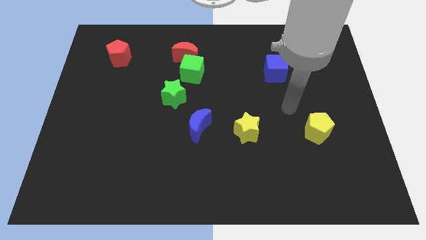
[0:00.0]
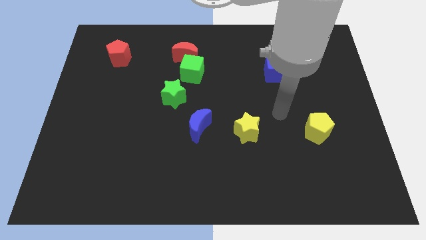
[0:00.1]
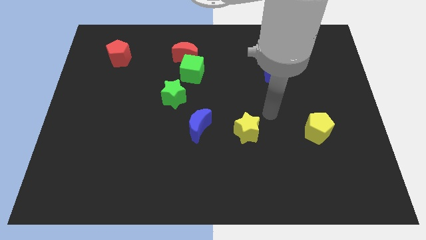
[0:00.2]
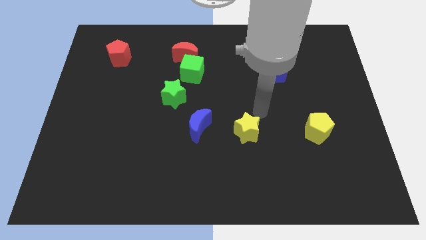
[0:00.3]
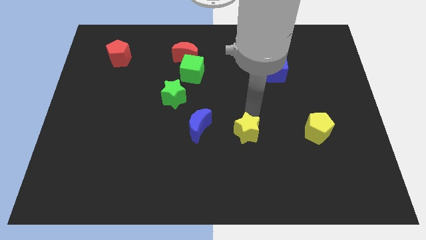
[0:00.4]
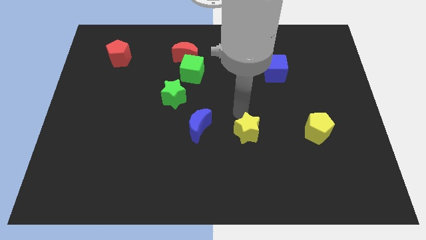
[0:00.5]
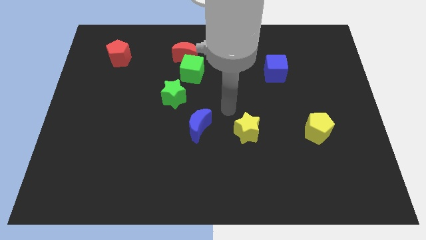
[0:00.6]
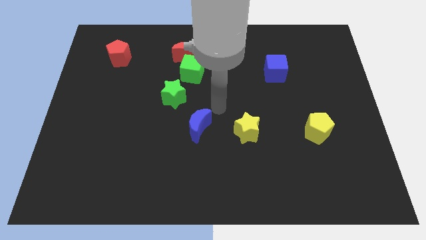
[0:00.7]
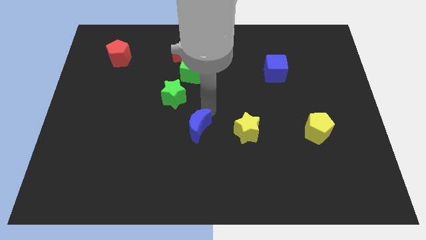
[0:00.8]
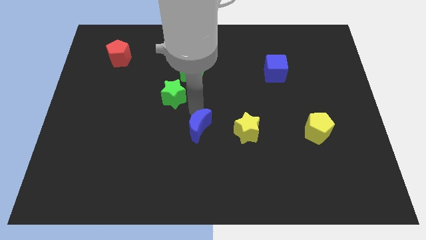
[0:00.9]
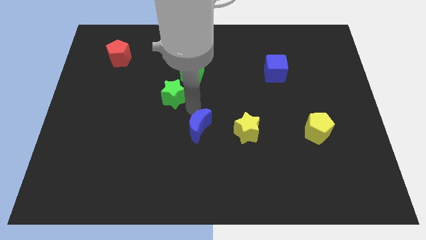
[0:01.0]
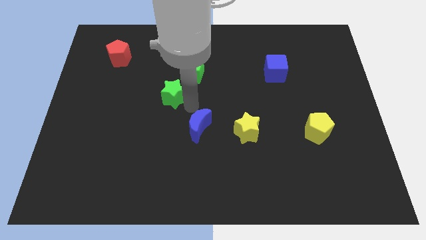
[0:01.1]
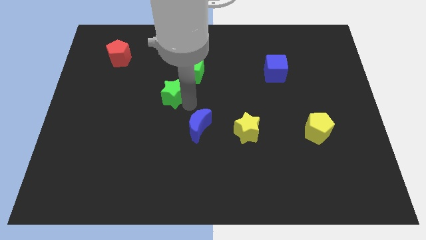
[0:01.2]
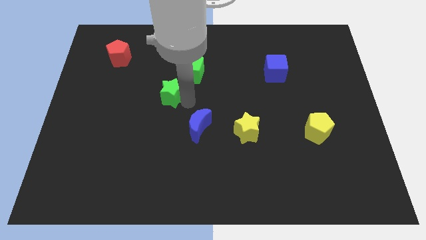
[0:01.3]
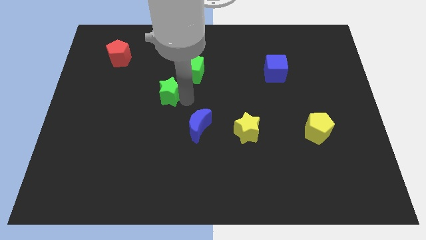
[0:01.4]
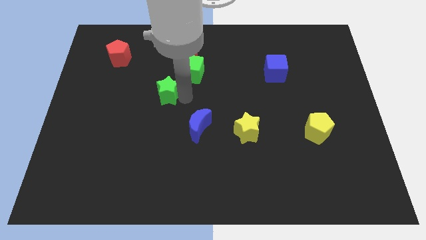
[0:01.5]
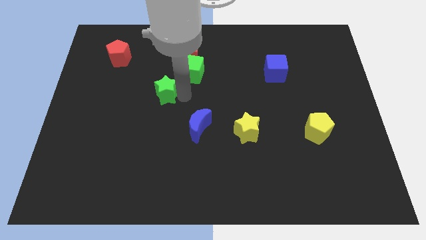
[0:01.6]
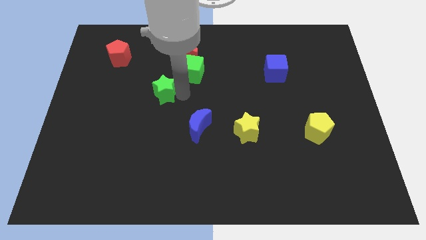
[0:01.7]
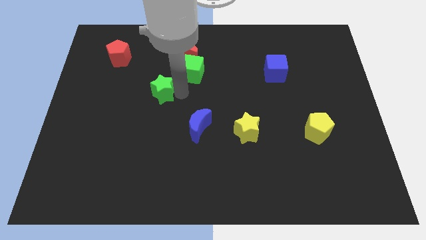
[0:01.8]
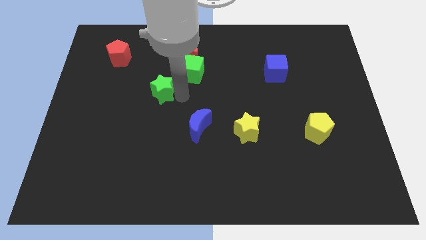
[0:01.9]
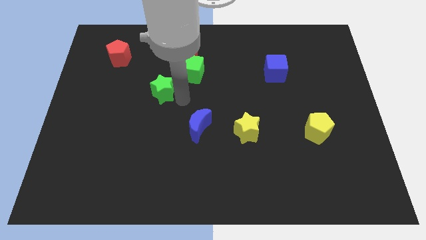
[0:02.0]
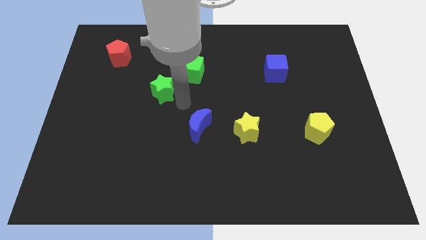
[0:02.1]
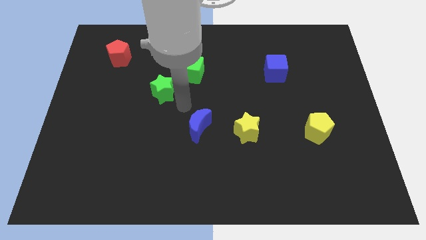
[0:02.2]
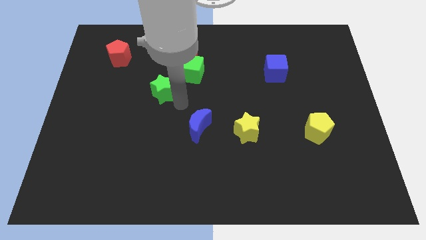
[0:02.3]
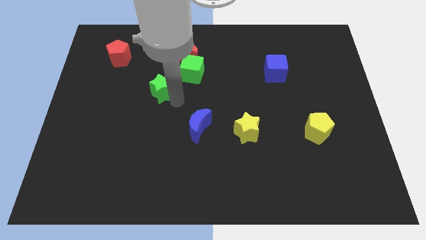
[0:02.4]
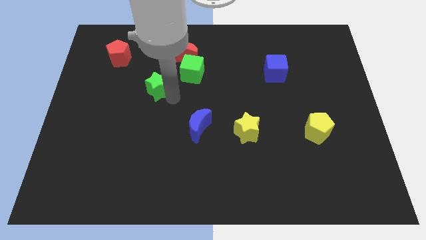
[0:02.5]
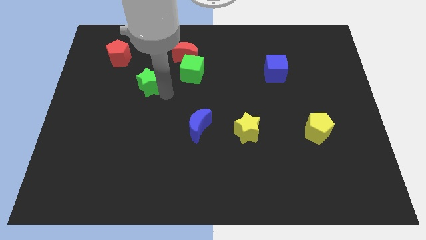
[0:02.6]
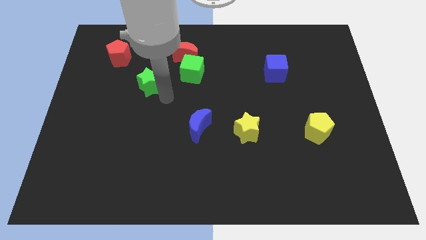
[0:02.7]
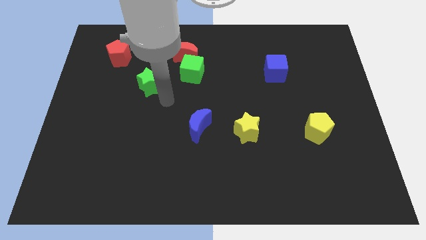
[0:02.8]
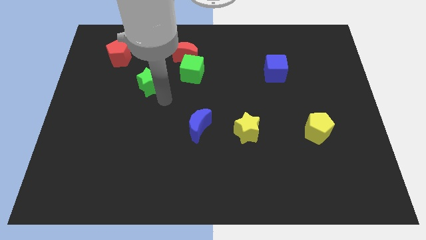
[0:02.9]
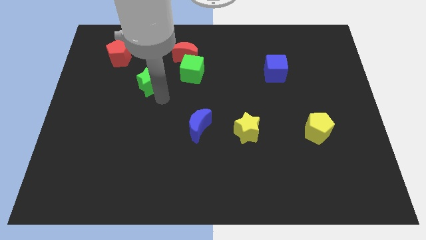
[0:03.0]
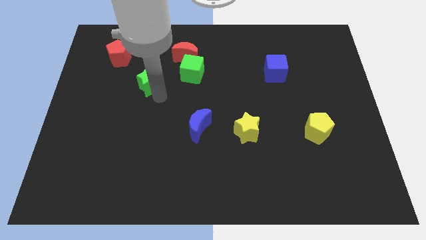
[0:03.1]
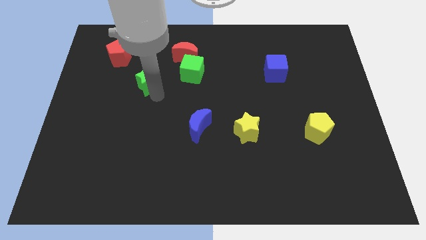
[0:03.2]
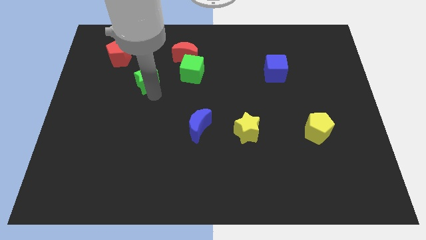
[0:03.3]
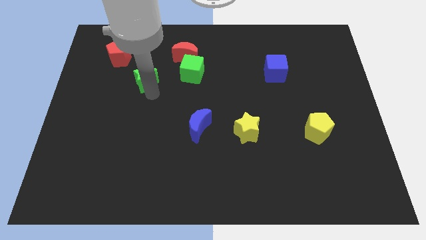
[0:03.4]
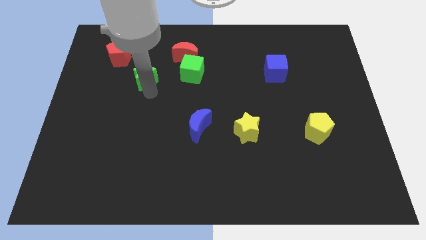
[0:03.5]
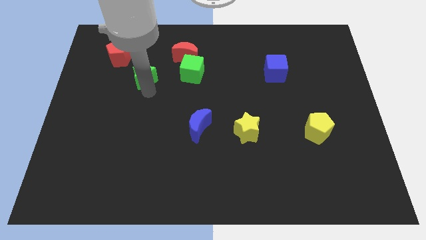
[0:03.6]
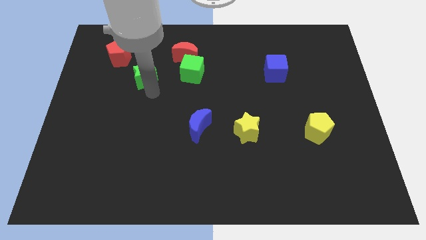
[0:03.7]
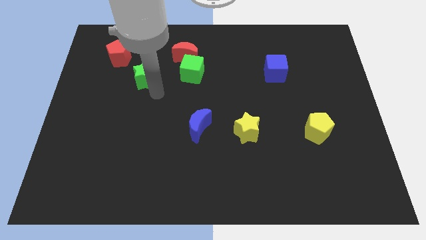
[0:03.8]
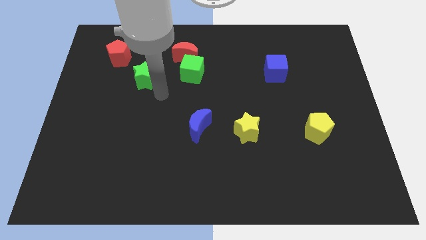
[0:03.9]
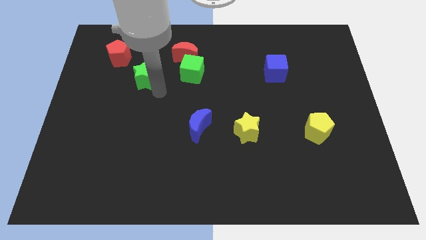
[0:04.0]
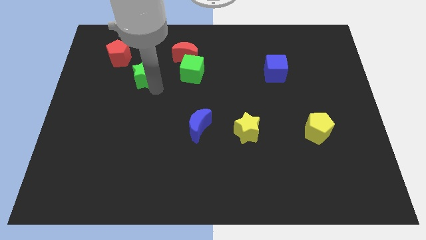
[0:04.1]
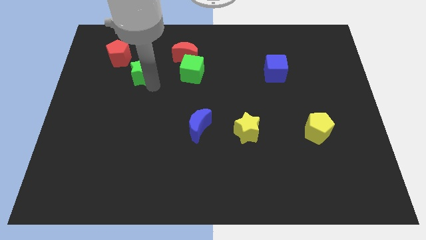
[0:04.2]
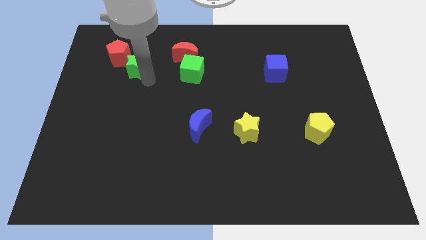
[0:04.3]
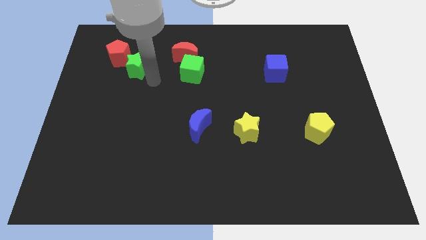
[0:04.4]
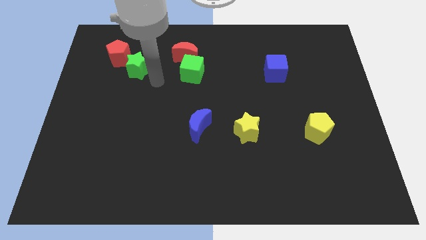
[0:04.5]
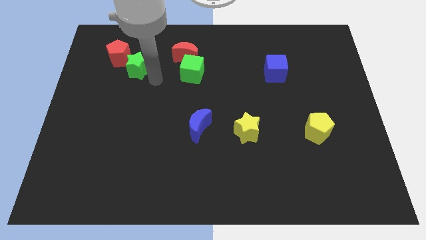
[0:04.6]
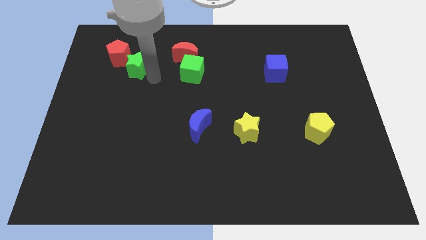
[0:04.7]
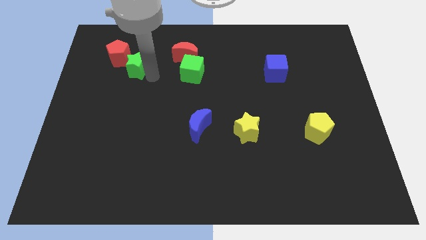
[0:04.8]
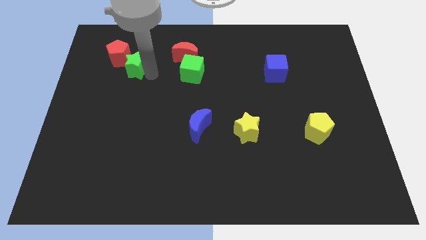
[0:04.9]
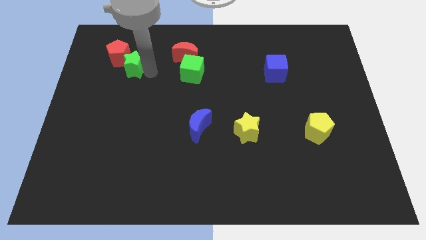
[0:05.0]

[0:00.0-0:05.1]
move the green star towards the red pentagon

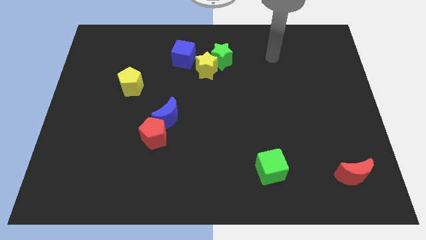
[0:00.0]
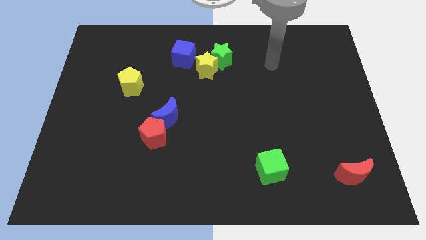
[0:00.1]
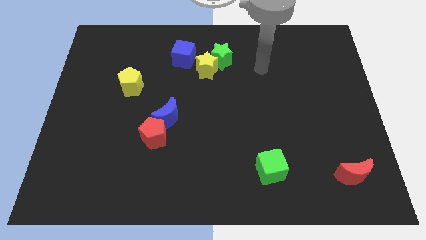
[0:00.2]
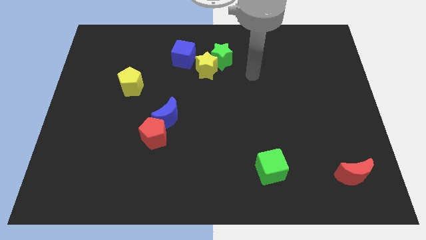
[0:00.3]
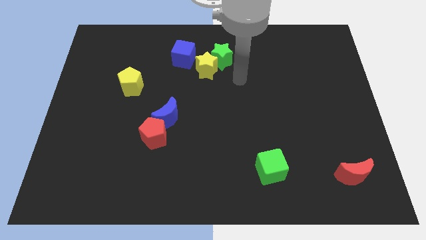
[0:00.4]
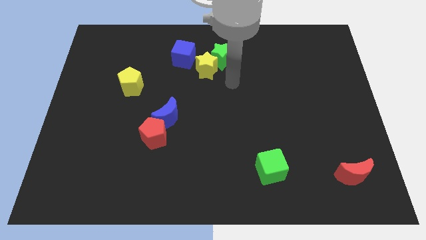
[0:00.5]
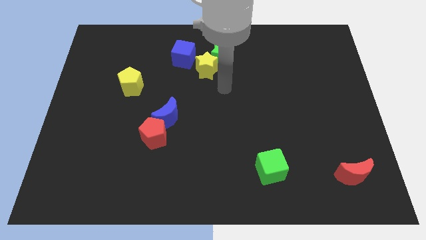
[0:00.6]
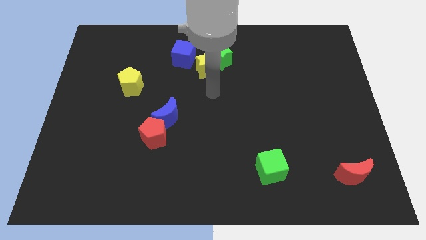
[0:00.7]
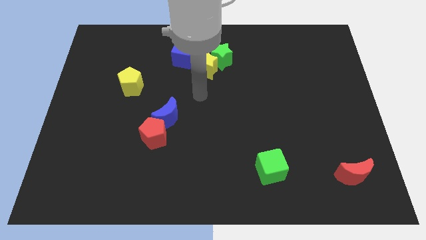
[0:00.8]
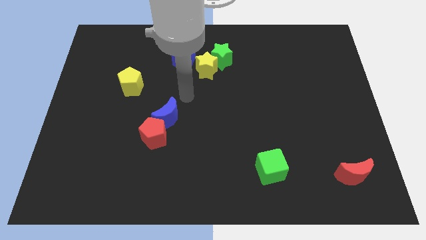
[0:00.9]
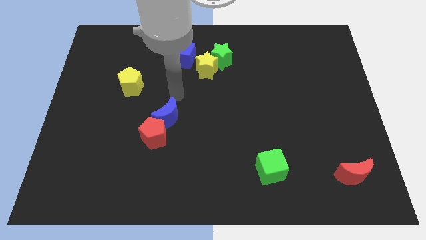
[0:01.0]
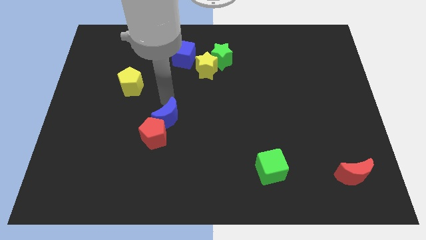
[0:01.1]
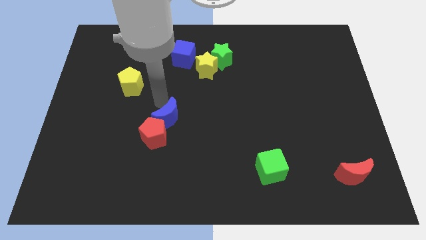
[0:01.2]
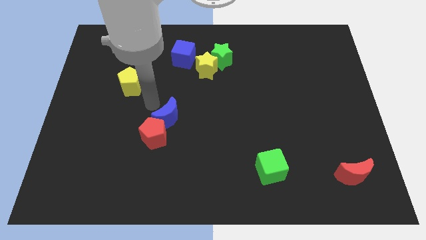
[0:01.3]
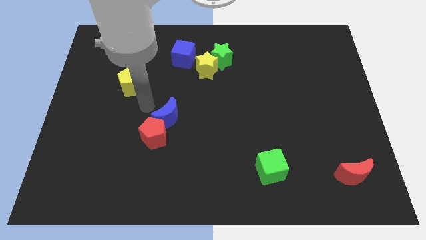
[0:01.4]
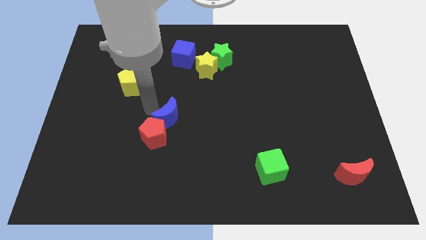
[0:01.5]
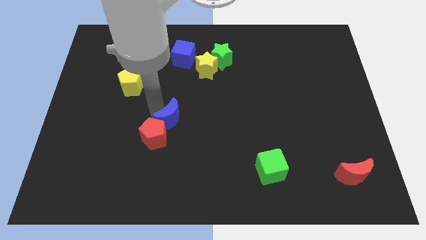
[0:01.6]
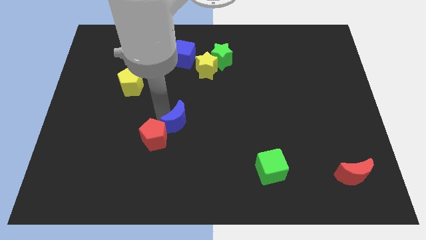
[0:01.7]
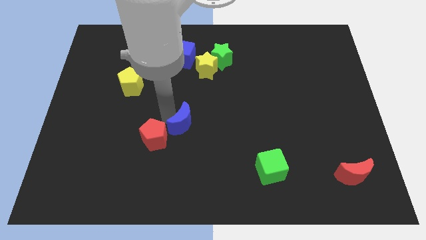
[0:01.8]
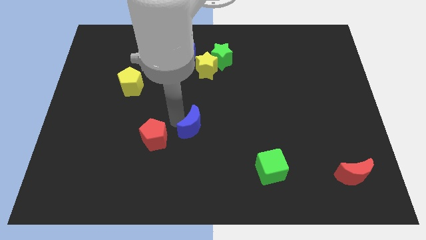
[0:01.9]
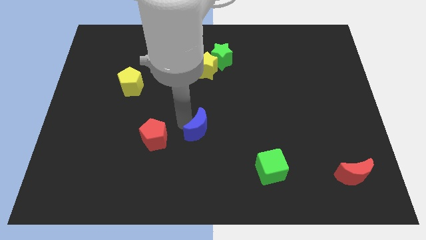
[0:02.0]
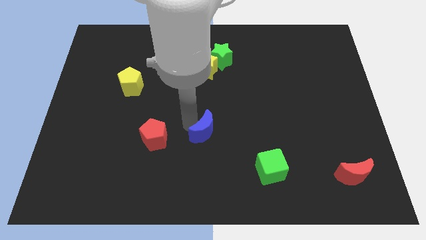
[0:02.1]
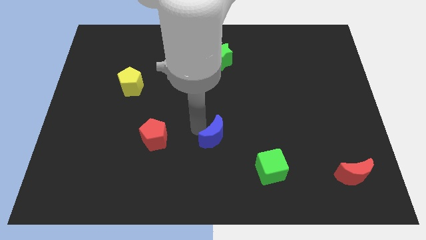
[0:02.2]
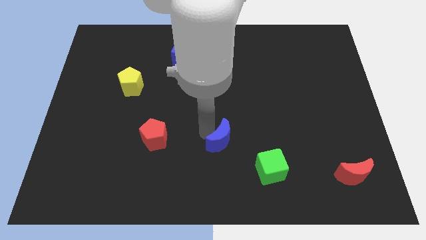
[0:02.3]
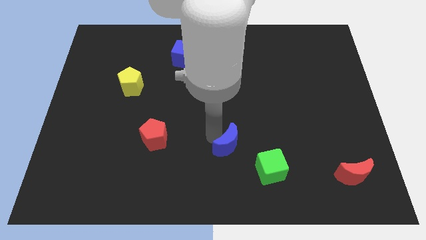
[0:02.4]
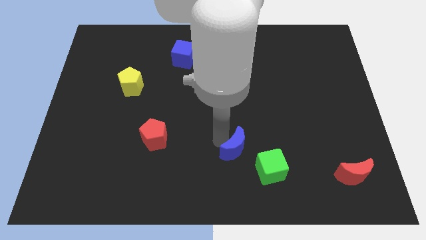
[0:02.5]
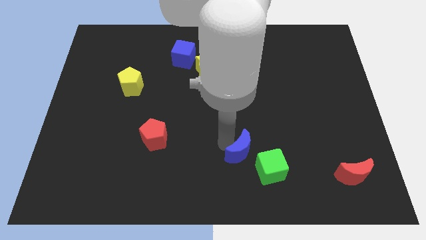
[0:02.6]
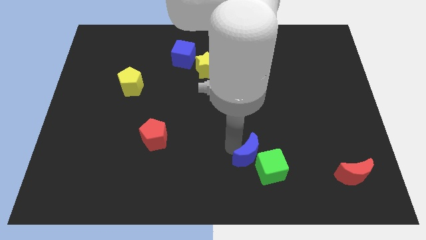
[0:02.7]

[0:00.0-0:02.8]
put the blue moon to the green cube
